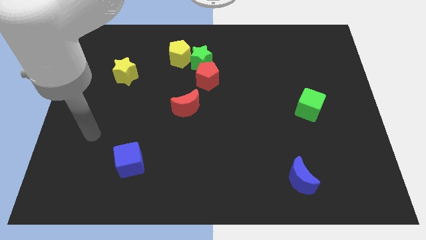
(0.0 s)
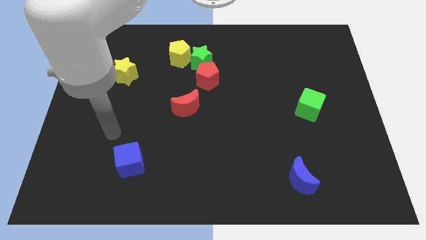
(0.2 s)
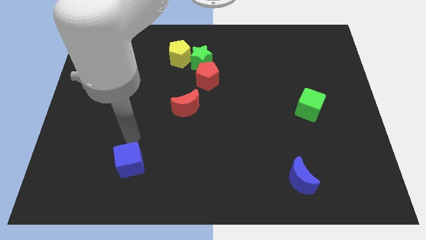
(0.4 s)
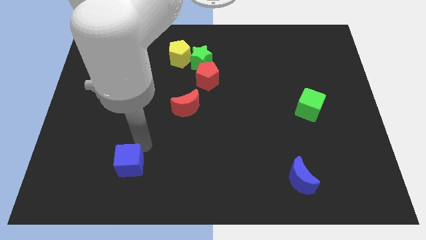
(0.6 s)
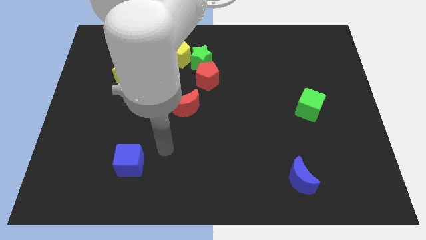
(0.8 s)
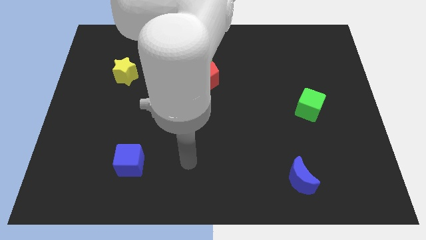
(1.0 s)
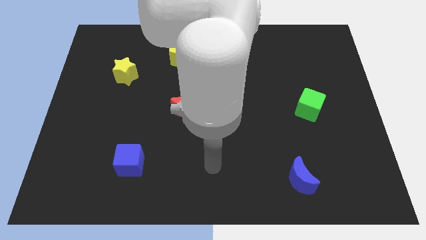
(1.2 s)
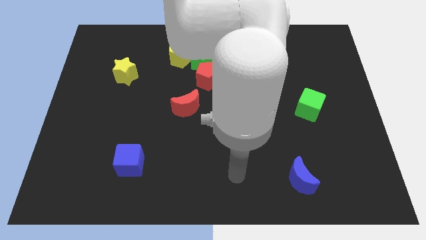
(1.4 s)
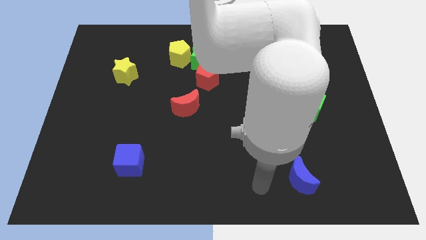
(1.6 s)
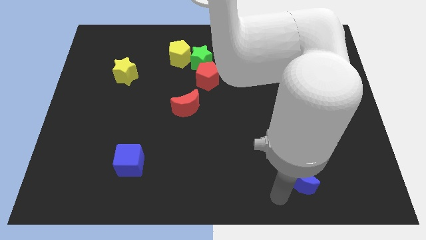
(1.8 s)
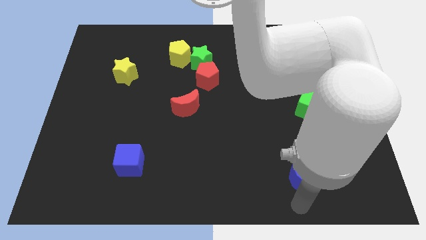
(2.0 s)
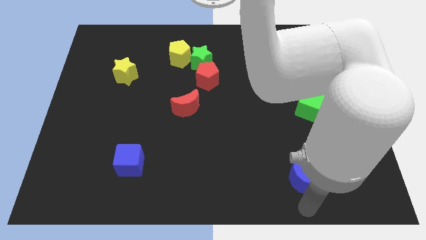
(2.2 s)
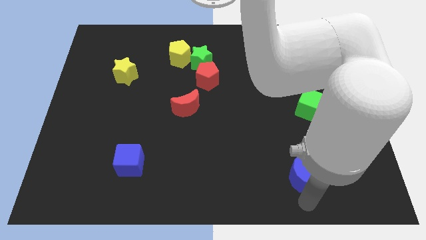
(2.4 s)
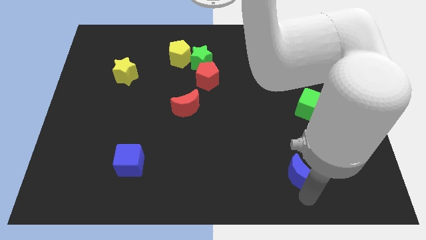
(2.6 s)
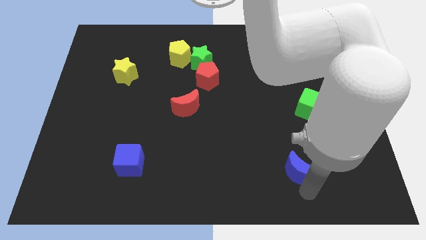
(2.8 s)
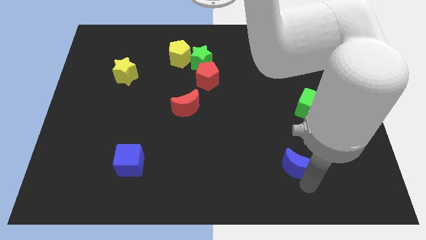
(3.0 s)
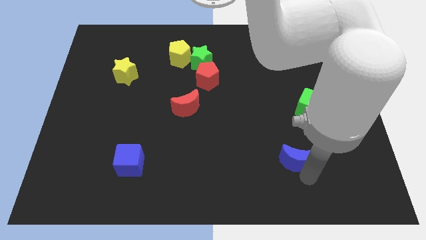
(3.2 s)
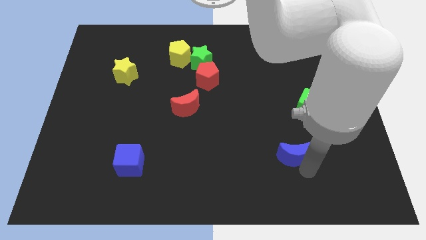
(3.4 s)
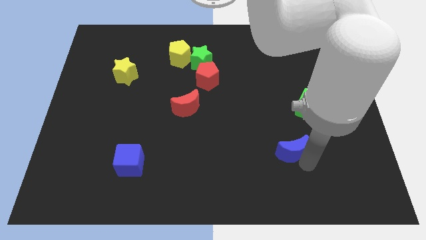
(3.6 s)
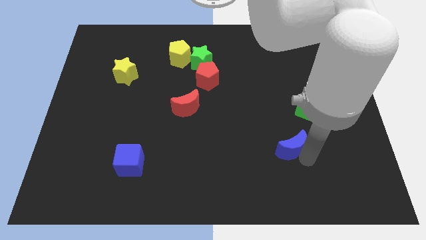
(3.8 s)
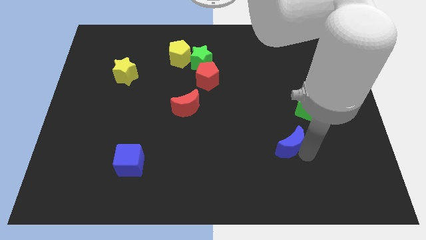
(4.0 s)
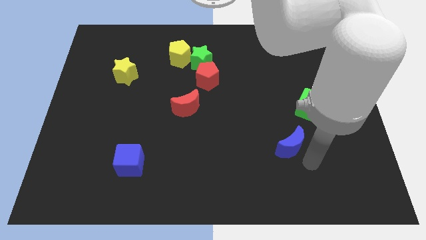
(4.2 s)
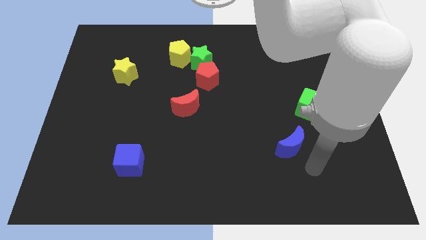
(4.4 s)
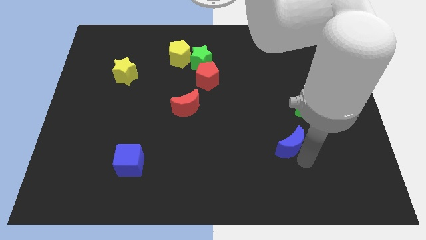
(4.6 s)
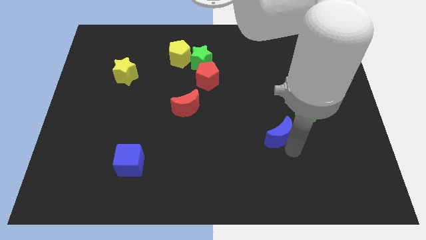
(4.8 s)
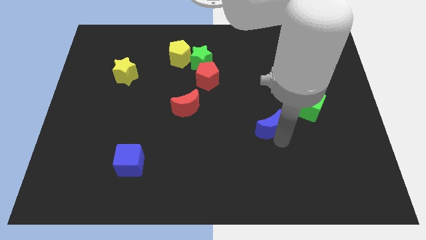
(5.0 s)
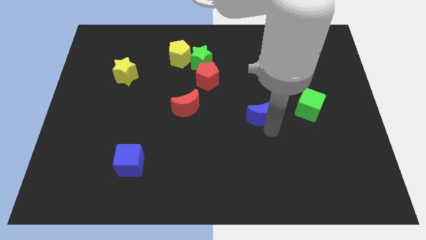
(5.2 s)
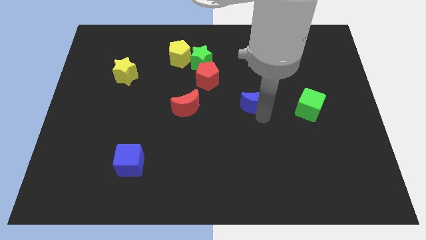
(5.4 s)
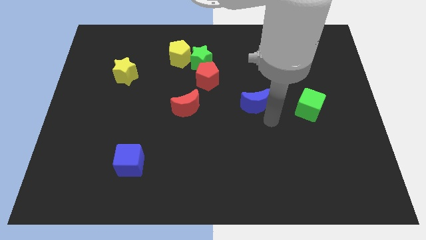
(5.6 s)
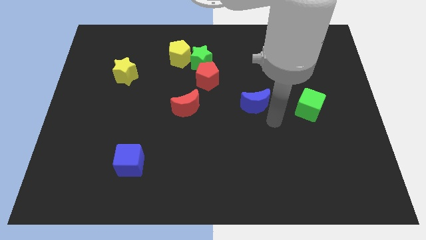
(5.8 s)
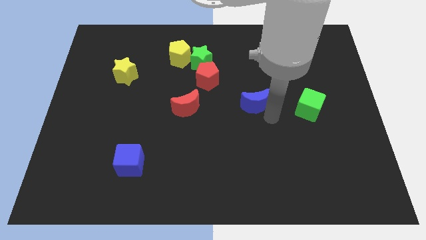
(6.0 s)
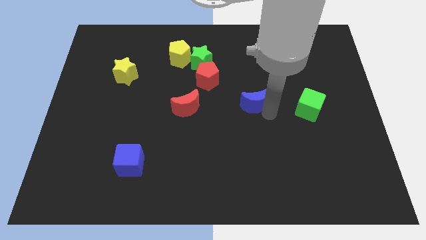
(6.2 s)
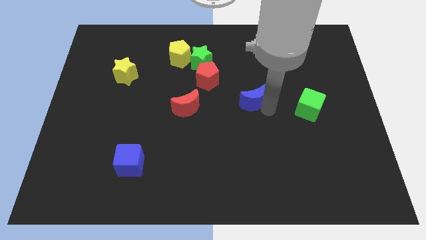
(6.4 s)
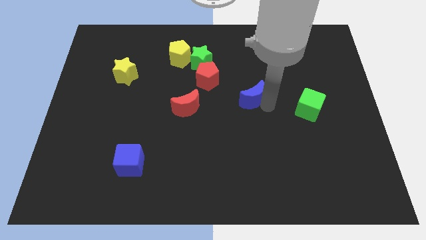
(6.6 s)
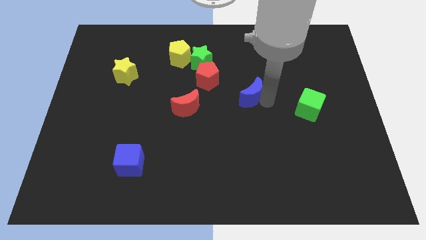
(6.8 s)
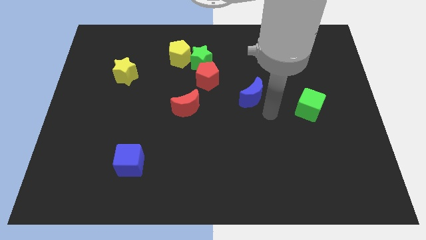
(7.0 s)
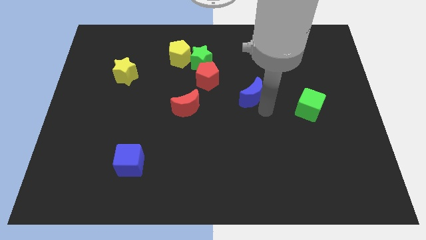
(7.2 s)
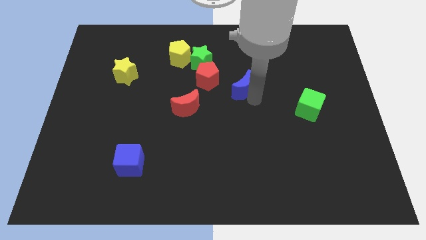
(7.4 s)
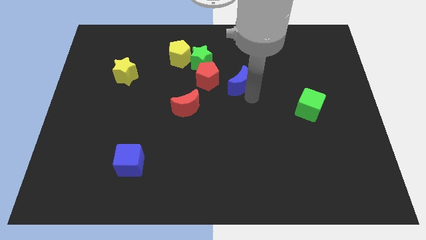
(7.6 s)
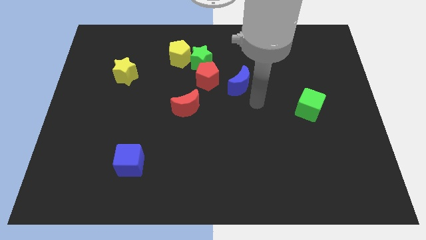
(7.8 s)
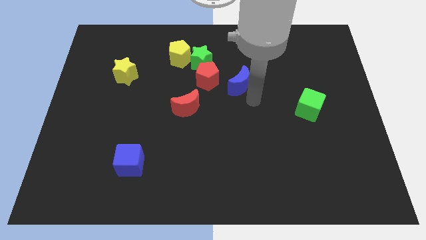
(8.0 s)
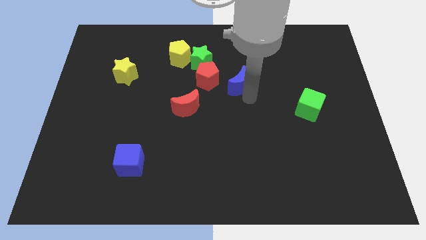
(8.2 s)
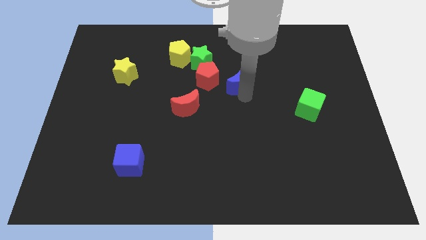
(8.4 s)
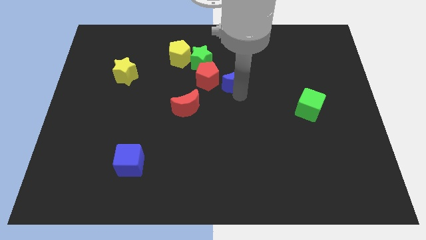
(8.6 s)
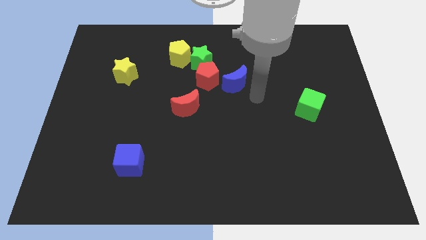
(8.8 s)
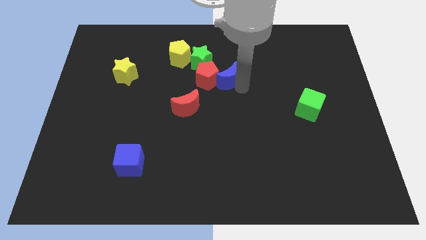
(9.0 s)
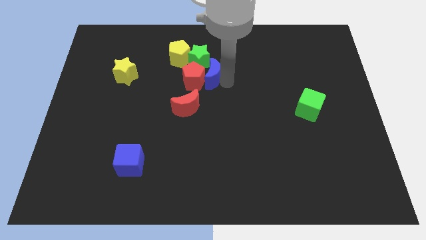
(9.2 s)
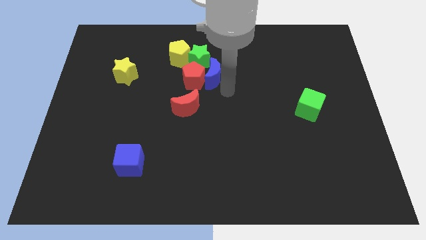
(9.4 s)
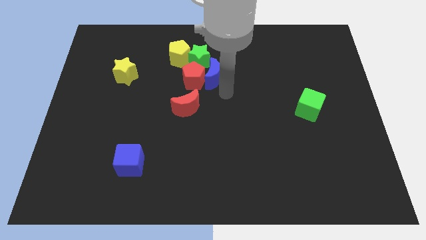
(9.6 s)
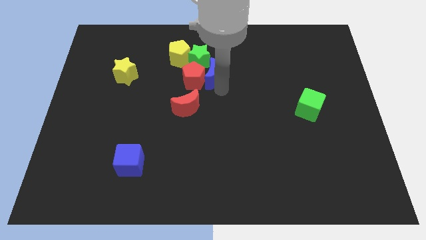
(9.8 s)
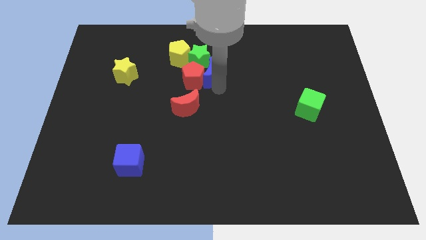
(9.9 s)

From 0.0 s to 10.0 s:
put the blue moon towards the green star

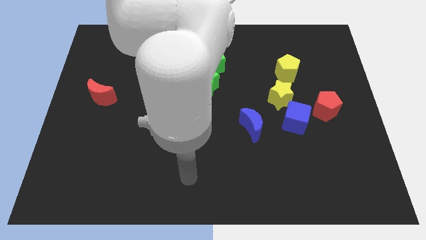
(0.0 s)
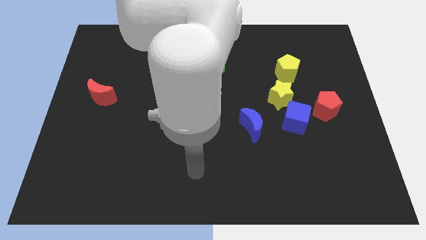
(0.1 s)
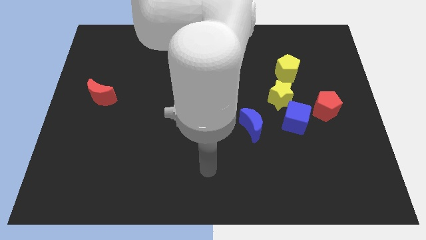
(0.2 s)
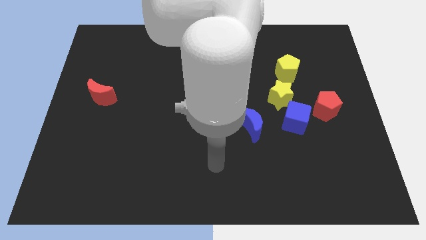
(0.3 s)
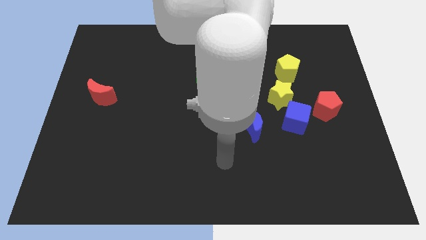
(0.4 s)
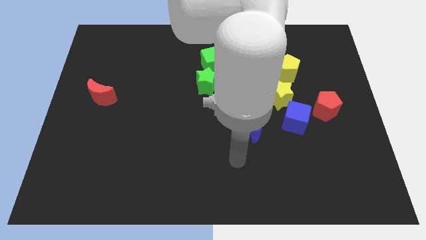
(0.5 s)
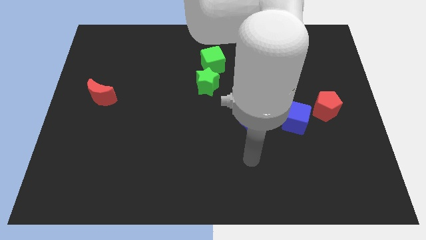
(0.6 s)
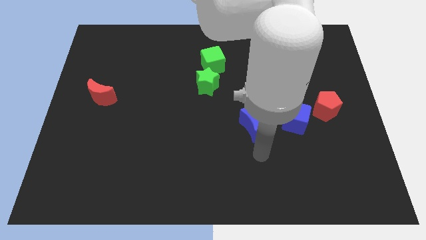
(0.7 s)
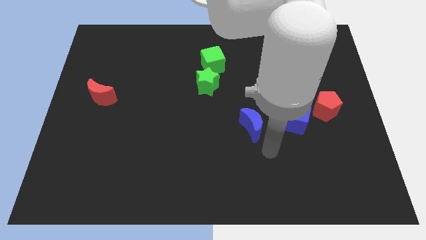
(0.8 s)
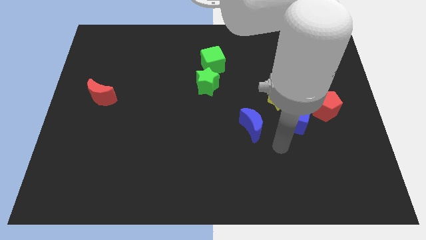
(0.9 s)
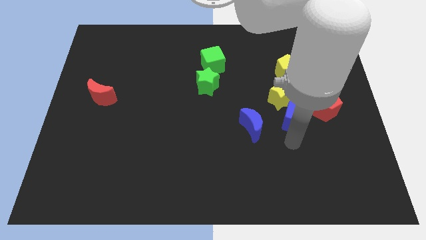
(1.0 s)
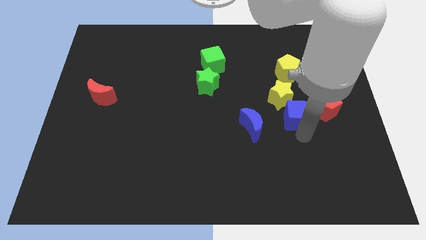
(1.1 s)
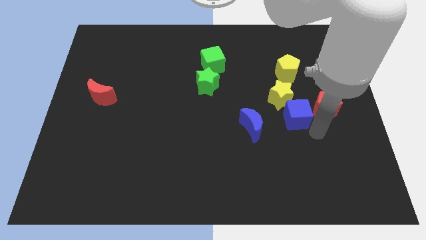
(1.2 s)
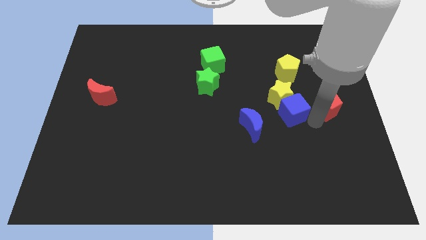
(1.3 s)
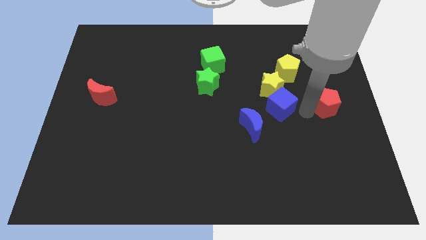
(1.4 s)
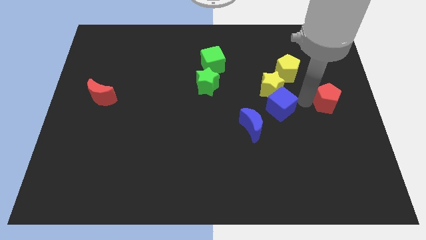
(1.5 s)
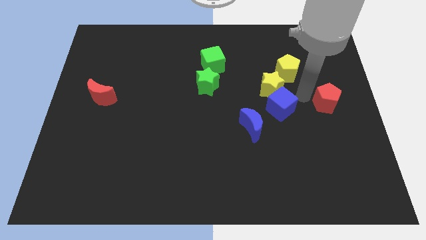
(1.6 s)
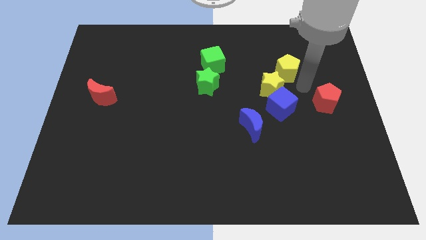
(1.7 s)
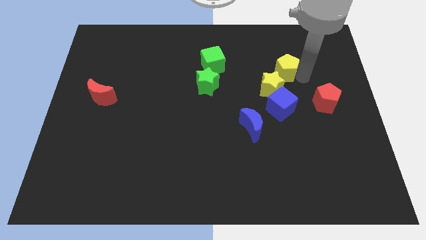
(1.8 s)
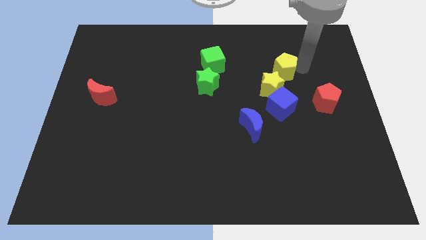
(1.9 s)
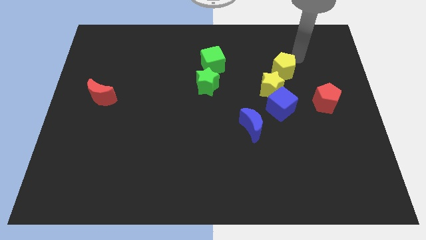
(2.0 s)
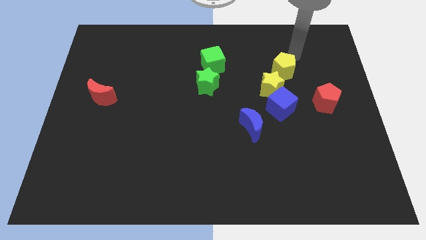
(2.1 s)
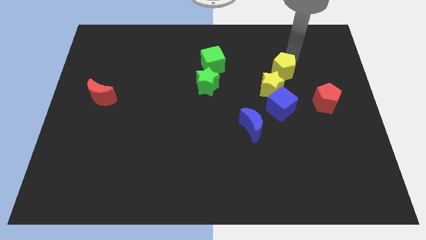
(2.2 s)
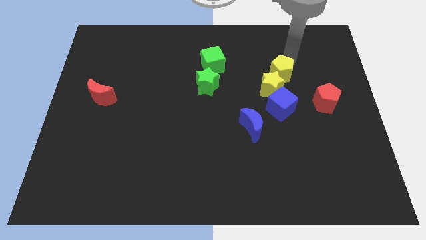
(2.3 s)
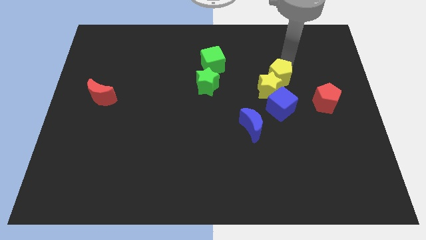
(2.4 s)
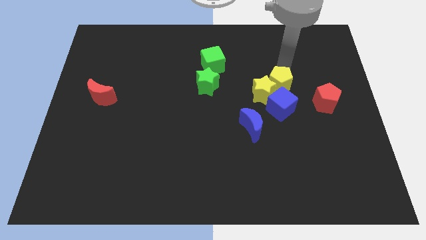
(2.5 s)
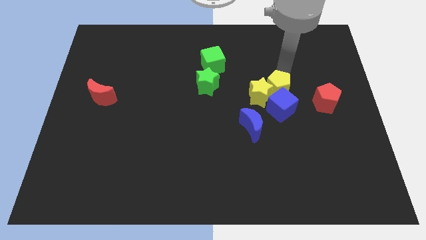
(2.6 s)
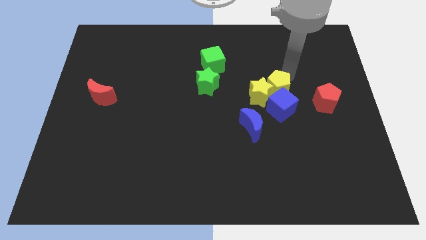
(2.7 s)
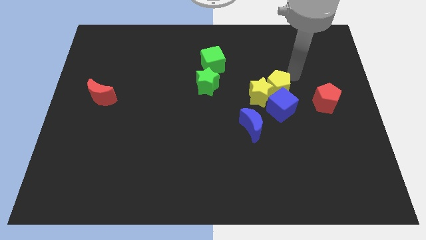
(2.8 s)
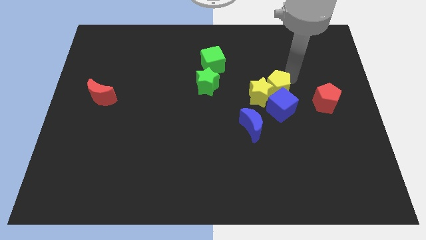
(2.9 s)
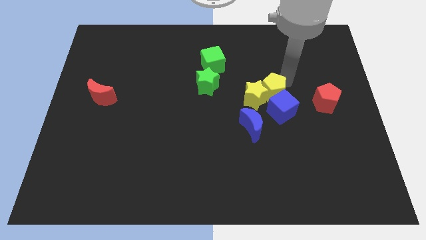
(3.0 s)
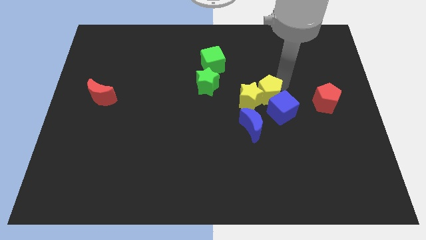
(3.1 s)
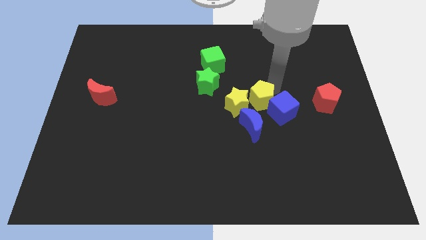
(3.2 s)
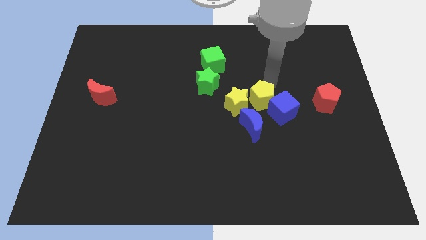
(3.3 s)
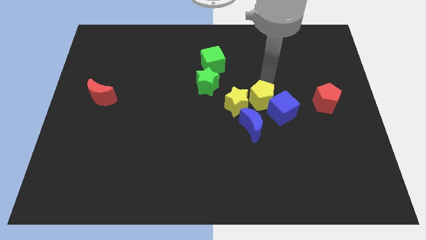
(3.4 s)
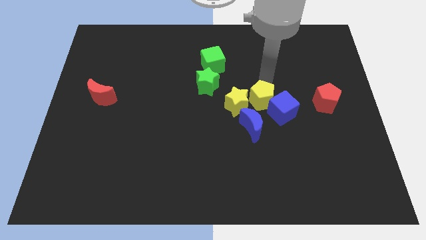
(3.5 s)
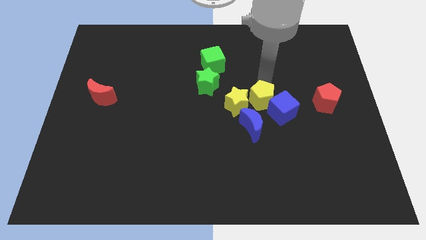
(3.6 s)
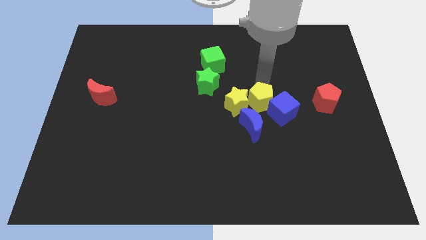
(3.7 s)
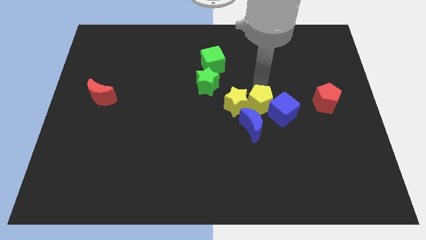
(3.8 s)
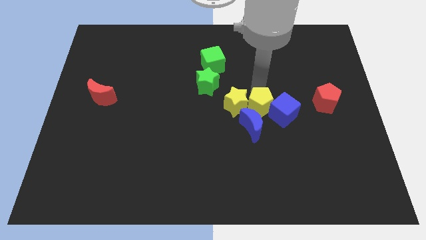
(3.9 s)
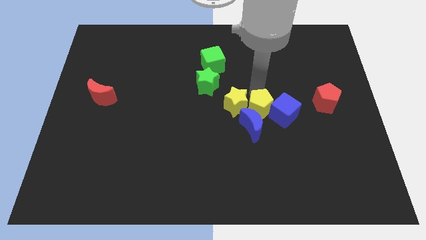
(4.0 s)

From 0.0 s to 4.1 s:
move the yellow pentagon next to the blue moon
